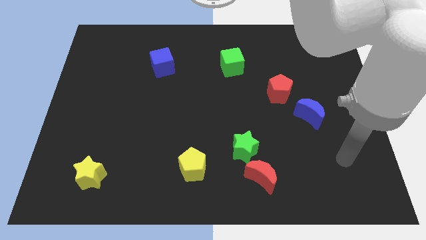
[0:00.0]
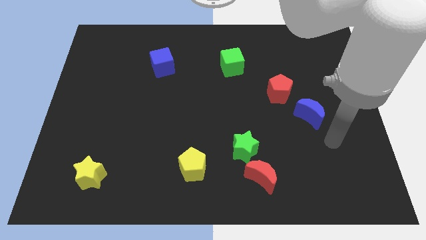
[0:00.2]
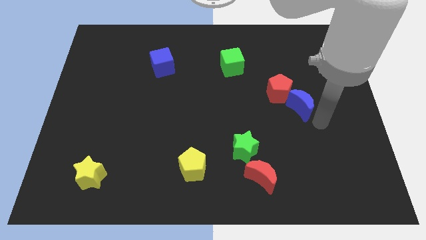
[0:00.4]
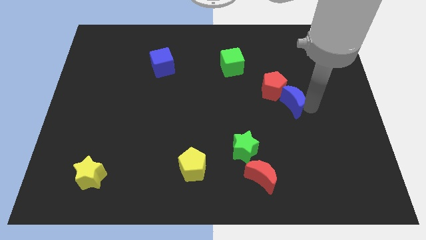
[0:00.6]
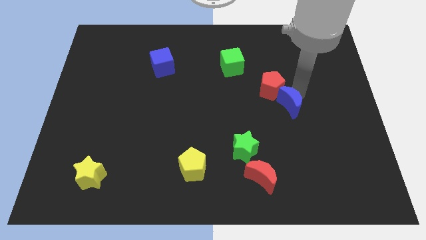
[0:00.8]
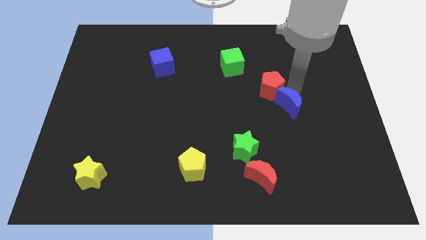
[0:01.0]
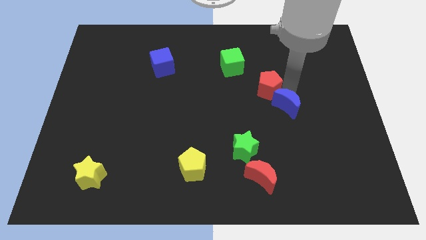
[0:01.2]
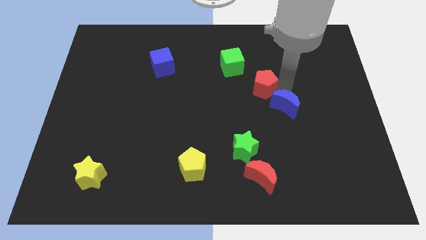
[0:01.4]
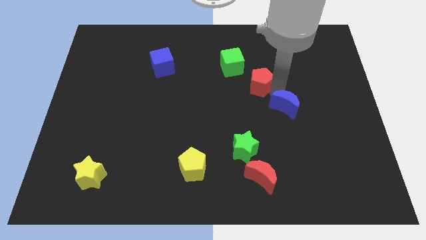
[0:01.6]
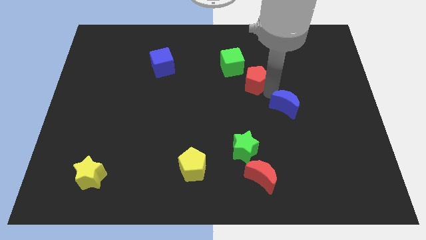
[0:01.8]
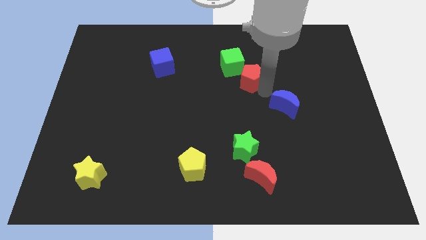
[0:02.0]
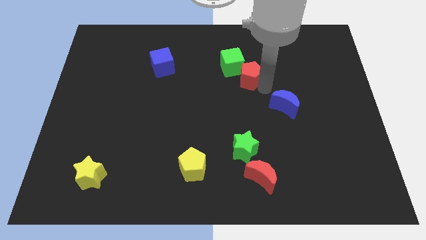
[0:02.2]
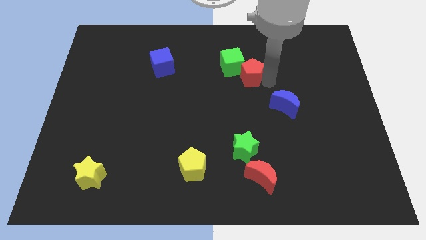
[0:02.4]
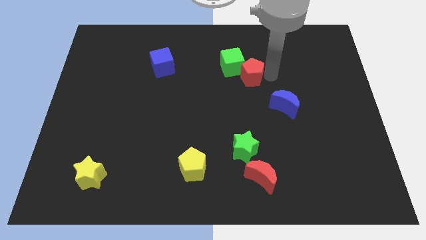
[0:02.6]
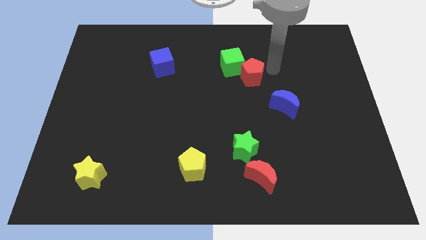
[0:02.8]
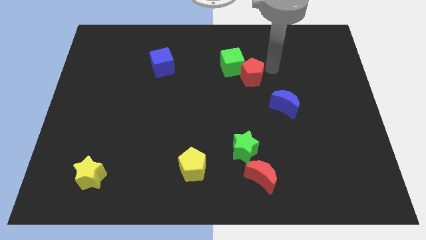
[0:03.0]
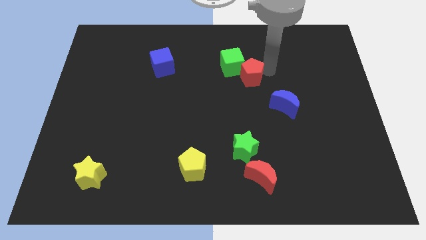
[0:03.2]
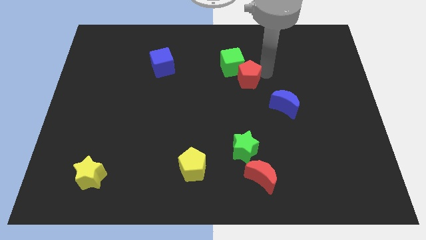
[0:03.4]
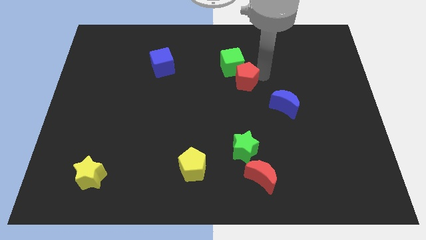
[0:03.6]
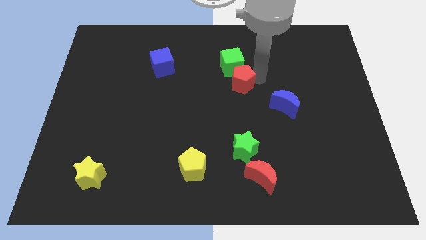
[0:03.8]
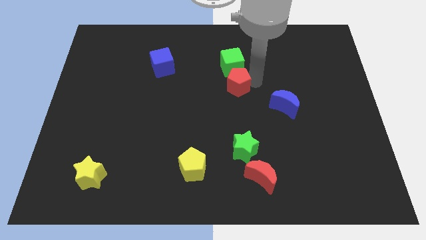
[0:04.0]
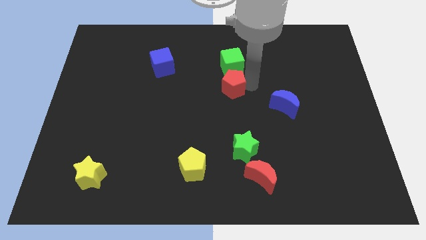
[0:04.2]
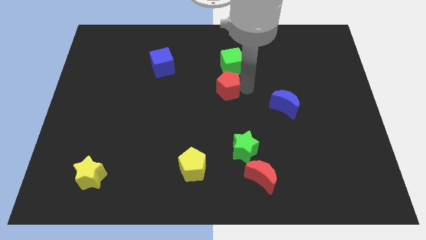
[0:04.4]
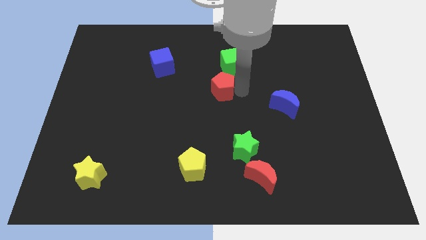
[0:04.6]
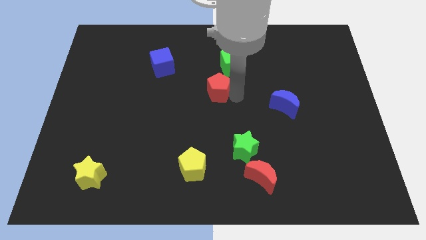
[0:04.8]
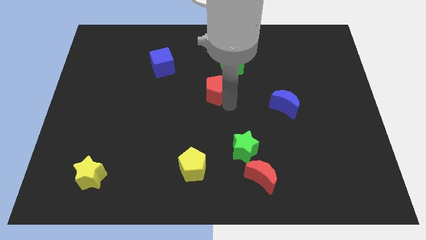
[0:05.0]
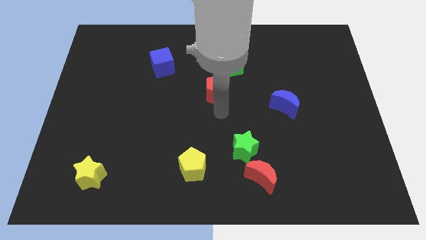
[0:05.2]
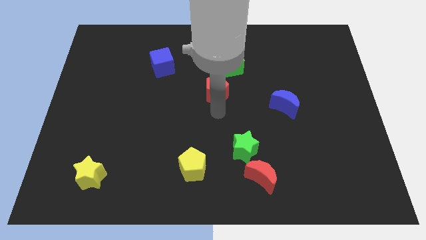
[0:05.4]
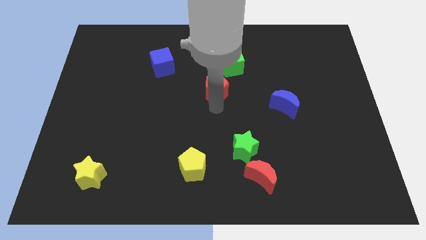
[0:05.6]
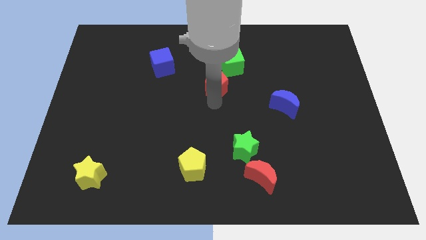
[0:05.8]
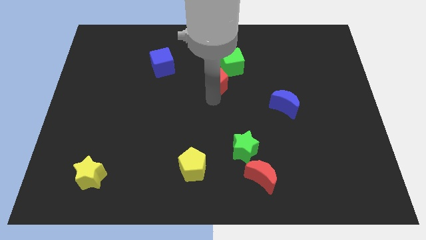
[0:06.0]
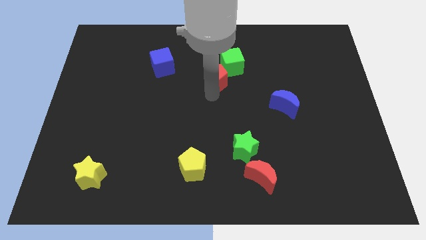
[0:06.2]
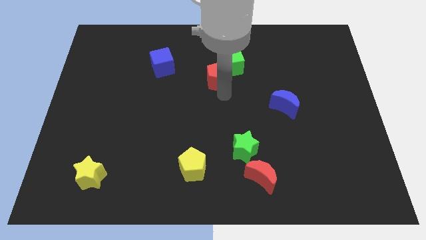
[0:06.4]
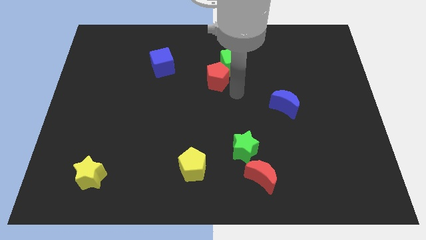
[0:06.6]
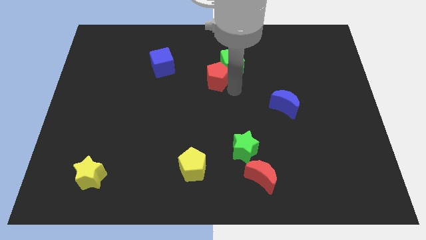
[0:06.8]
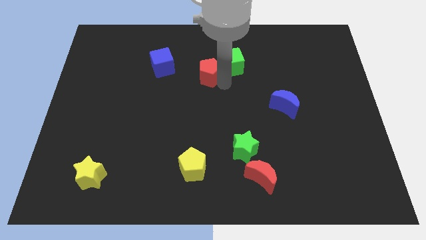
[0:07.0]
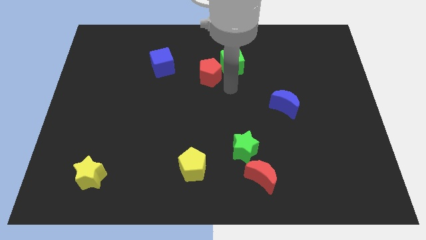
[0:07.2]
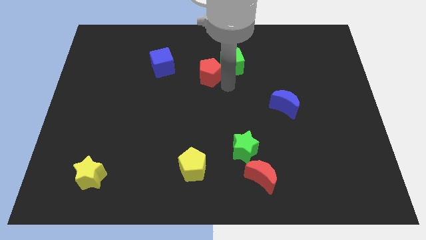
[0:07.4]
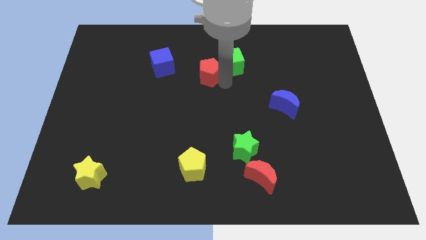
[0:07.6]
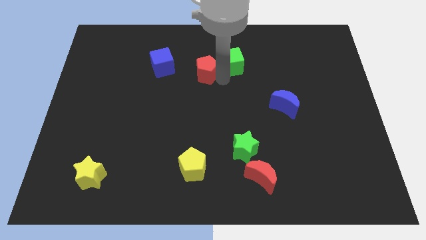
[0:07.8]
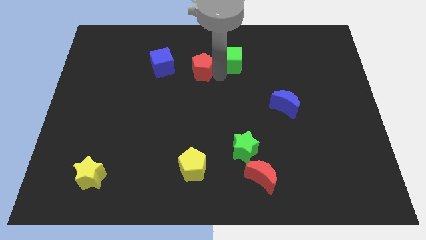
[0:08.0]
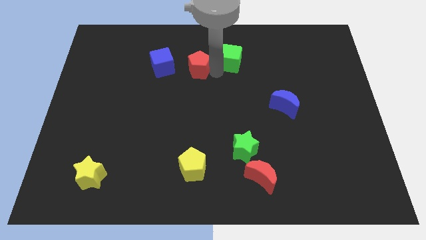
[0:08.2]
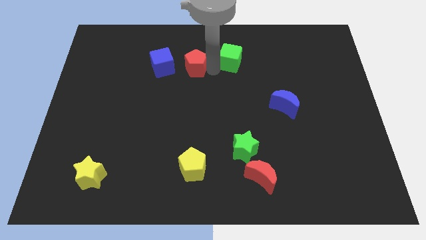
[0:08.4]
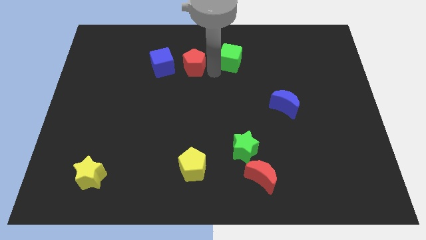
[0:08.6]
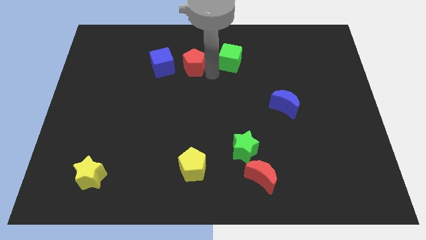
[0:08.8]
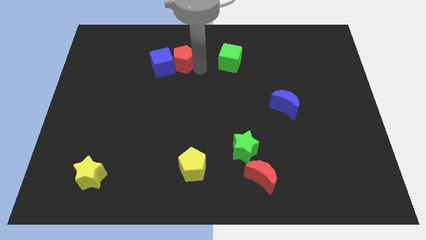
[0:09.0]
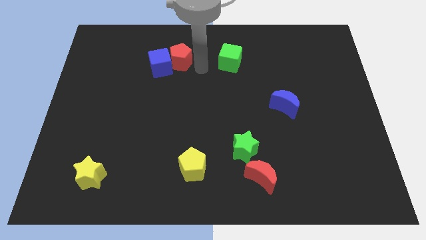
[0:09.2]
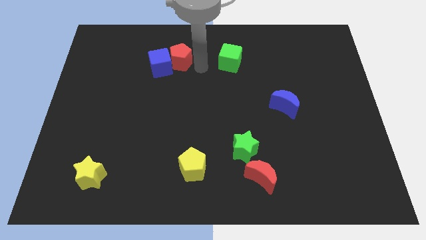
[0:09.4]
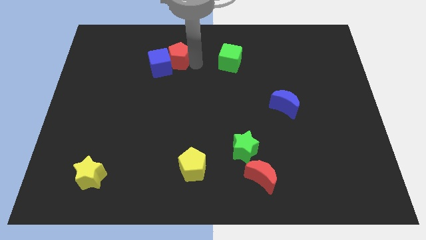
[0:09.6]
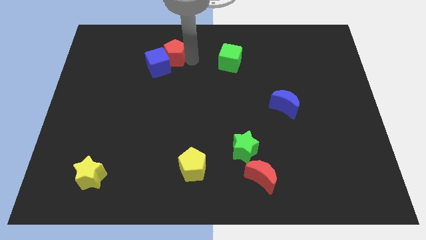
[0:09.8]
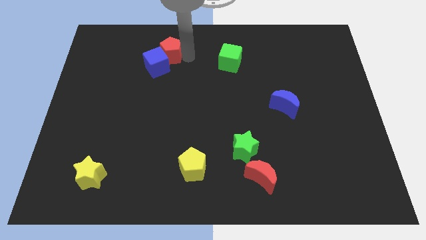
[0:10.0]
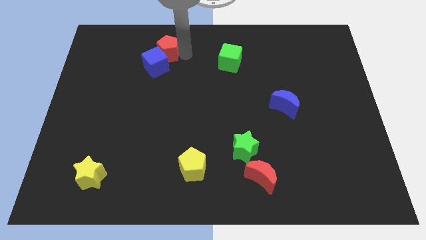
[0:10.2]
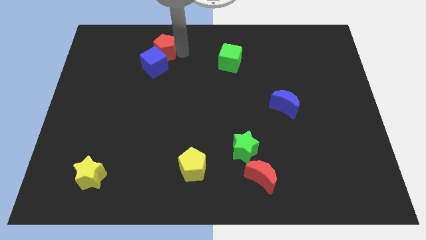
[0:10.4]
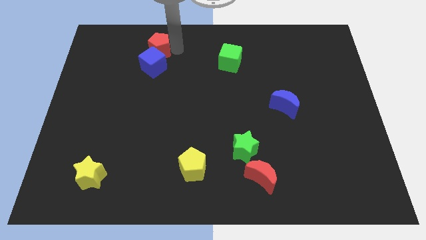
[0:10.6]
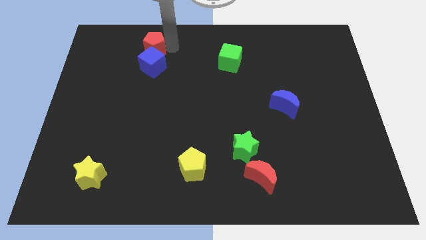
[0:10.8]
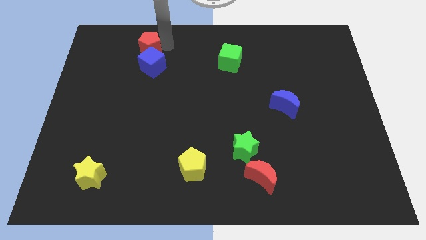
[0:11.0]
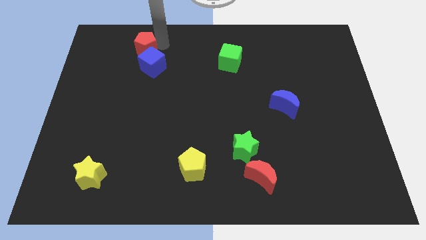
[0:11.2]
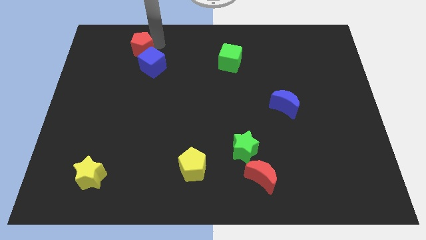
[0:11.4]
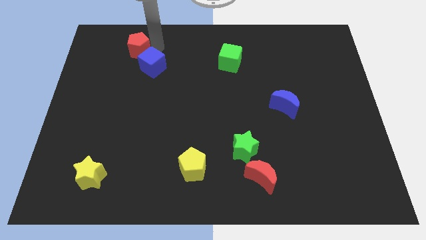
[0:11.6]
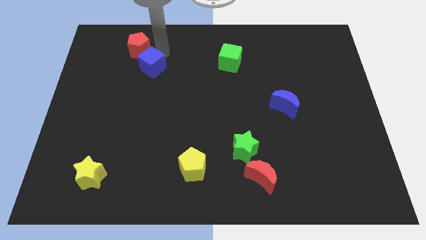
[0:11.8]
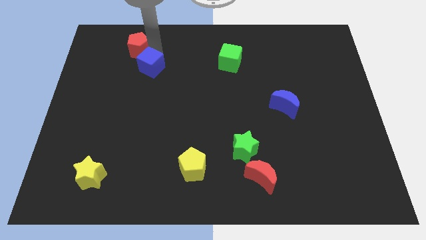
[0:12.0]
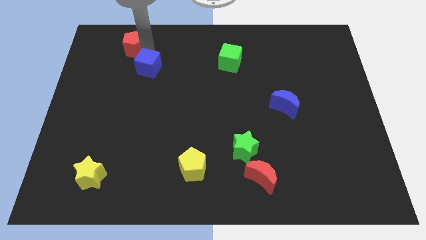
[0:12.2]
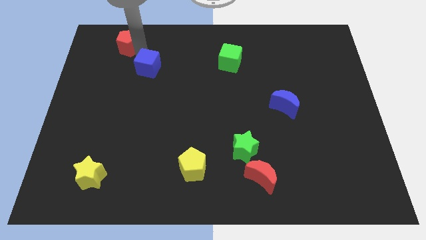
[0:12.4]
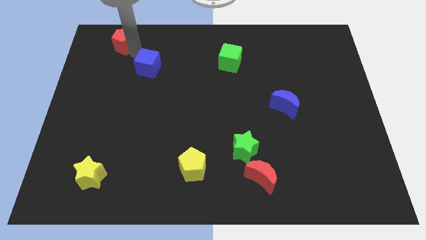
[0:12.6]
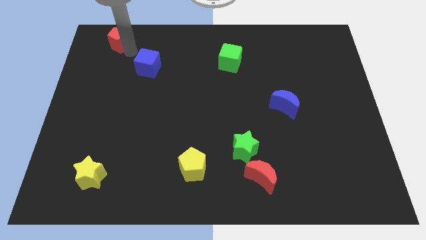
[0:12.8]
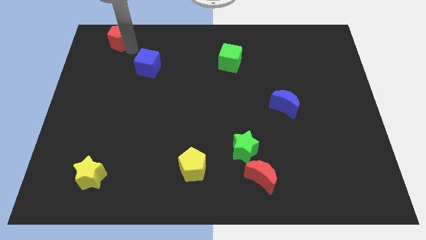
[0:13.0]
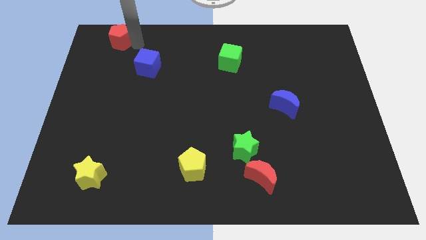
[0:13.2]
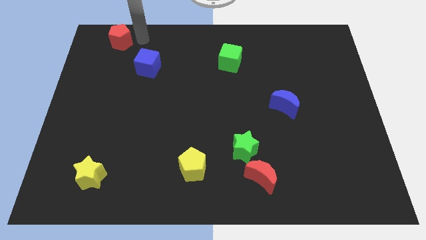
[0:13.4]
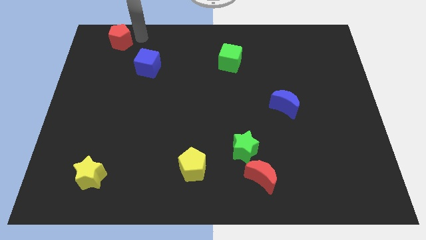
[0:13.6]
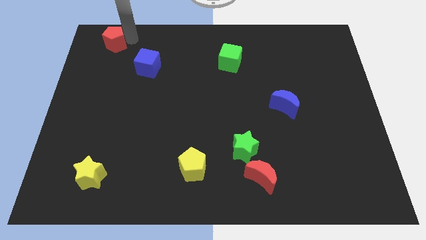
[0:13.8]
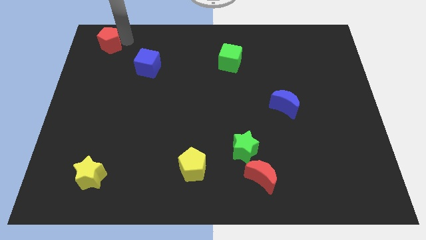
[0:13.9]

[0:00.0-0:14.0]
put the red pentagon to the top left of the board

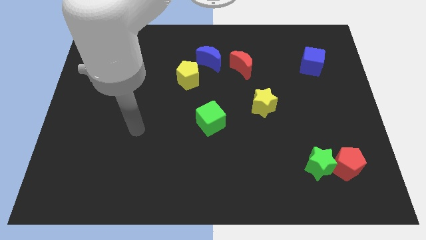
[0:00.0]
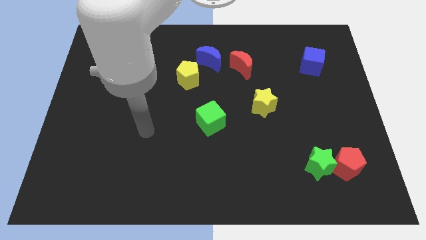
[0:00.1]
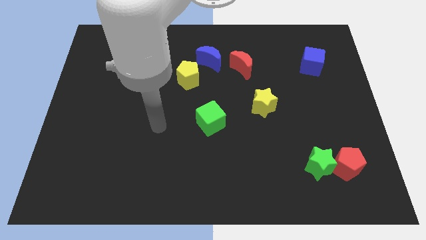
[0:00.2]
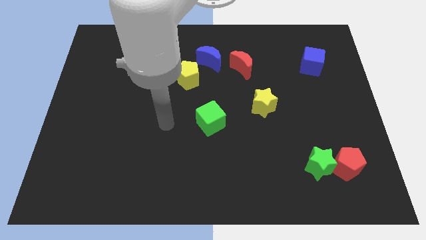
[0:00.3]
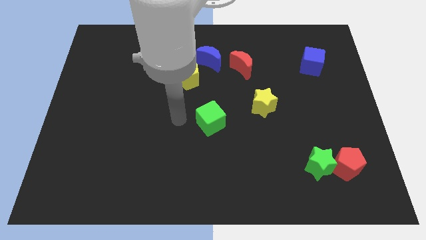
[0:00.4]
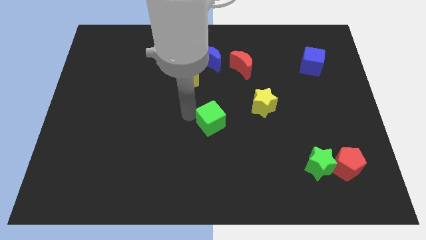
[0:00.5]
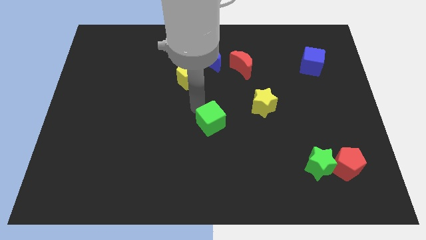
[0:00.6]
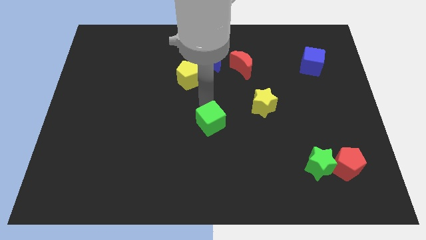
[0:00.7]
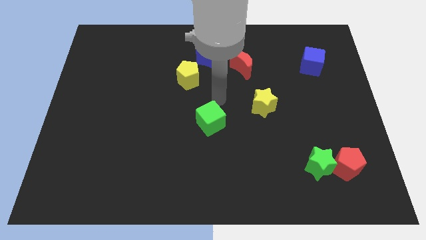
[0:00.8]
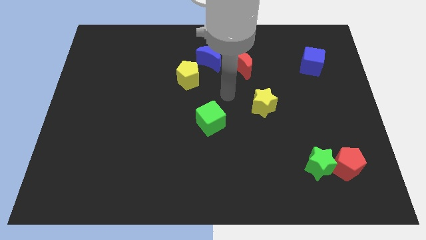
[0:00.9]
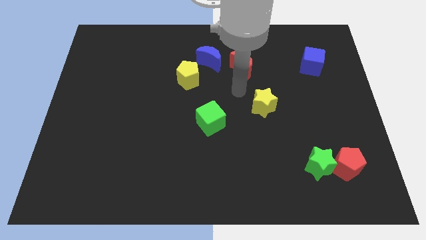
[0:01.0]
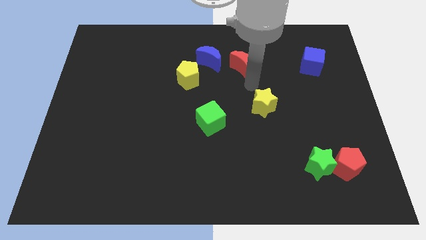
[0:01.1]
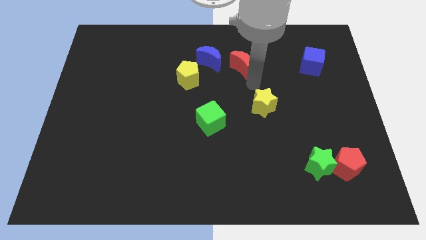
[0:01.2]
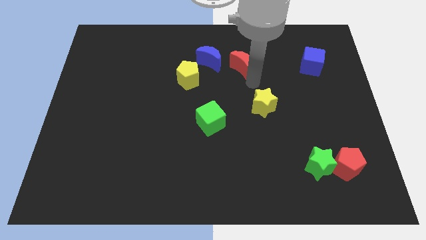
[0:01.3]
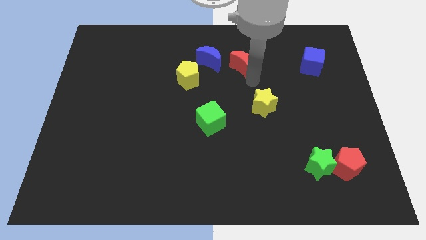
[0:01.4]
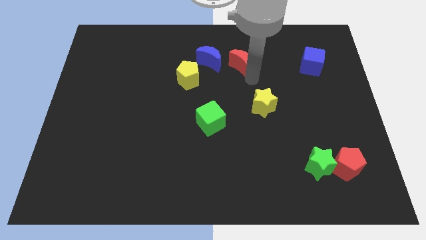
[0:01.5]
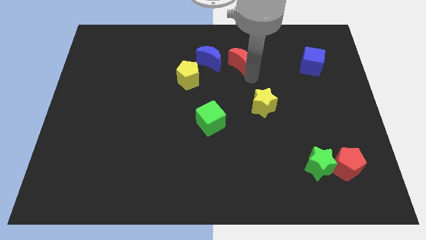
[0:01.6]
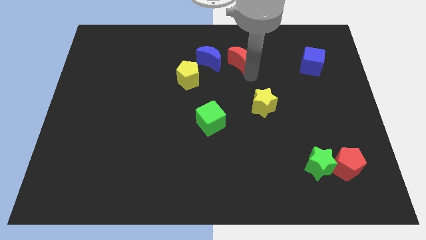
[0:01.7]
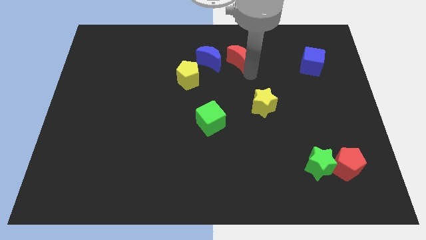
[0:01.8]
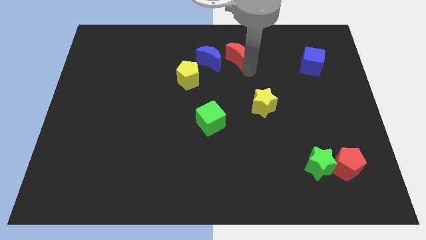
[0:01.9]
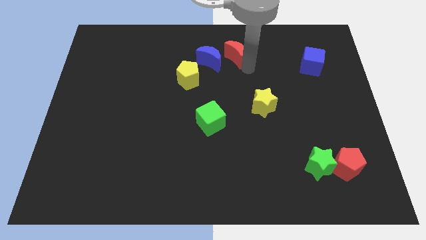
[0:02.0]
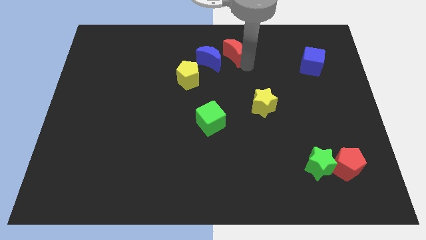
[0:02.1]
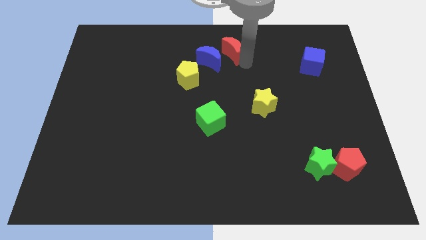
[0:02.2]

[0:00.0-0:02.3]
slide the red moon to the top side
